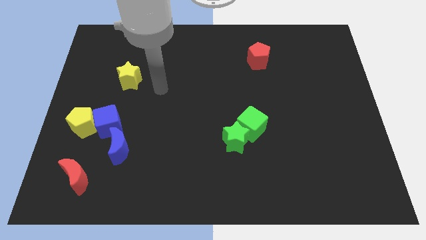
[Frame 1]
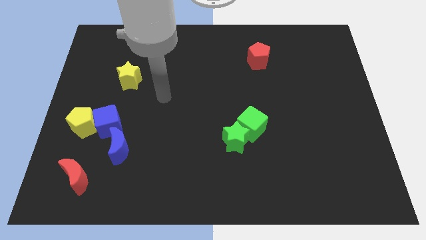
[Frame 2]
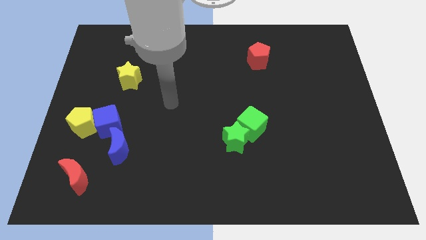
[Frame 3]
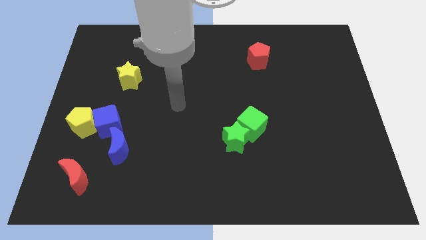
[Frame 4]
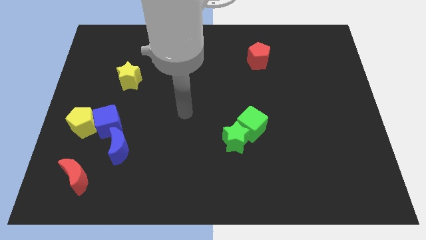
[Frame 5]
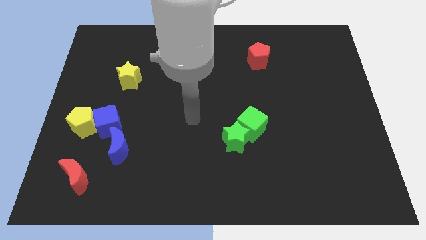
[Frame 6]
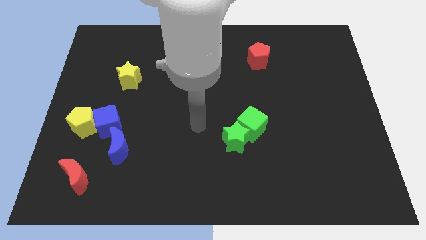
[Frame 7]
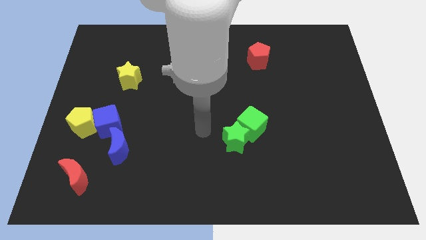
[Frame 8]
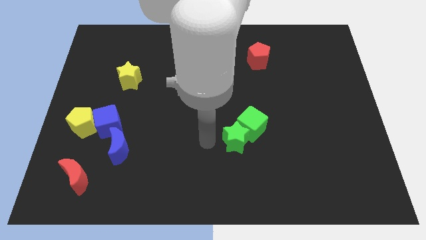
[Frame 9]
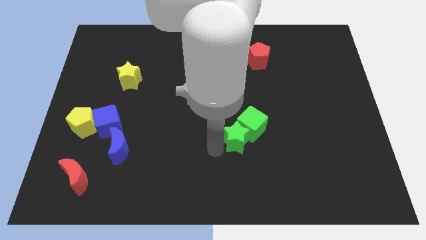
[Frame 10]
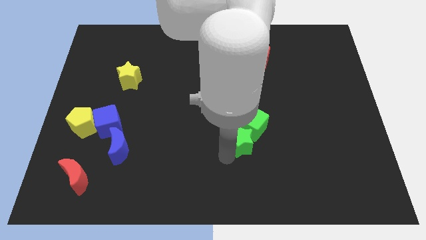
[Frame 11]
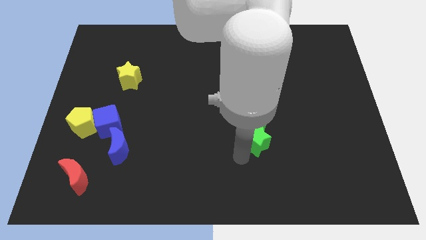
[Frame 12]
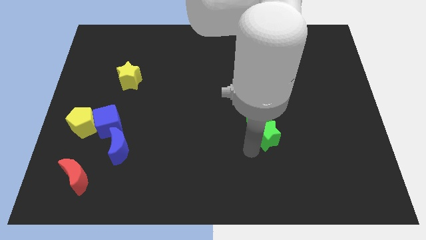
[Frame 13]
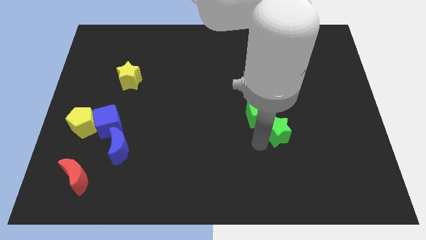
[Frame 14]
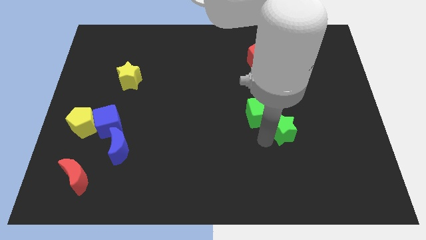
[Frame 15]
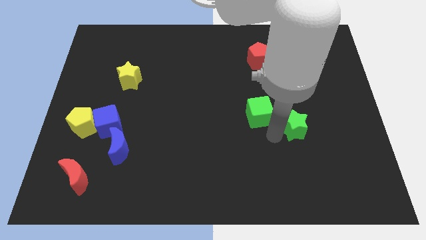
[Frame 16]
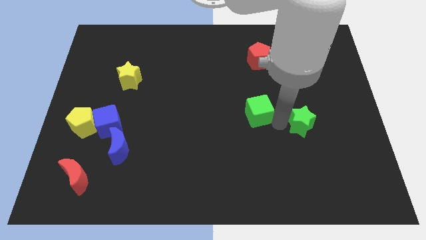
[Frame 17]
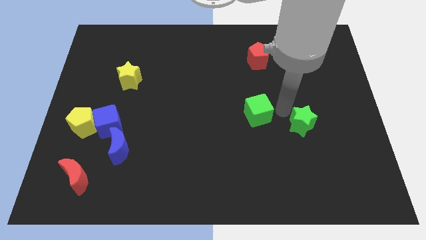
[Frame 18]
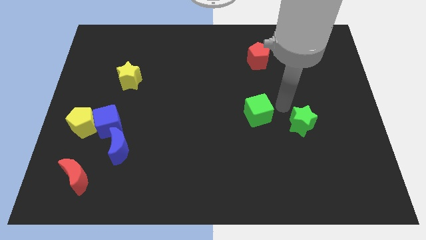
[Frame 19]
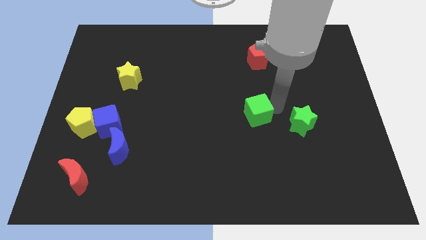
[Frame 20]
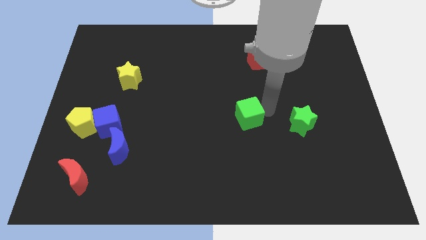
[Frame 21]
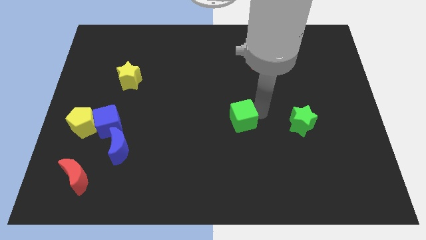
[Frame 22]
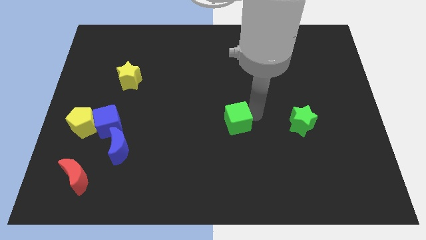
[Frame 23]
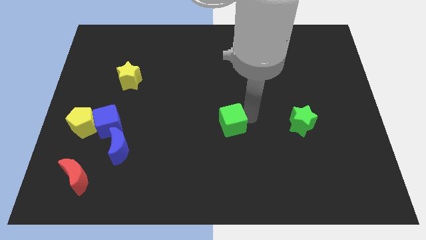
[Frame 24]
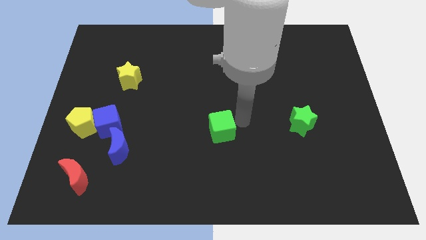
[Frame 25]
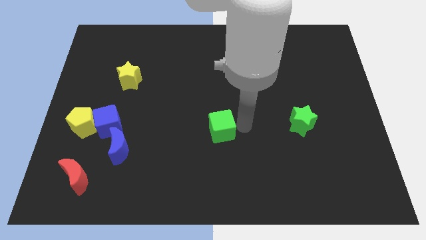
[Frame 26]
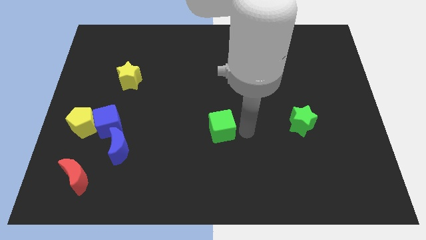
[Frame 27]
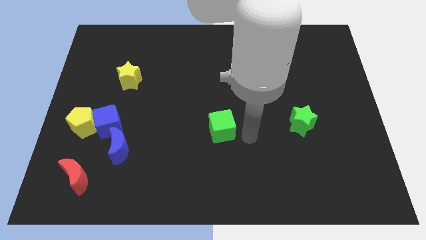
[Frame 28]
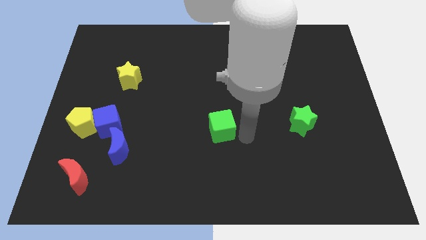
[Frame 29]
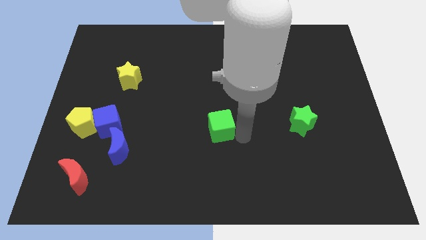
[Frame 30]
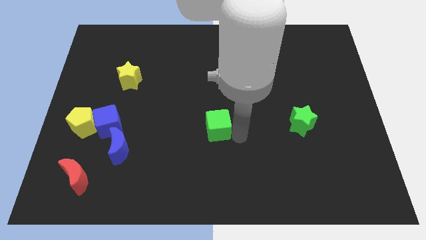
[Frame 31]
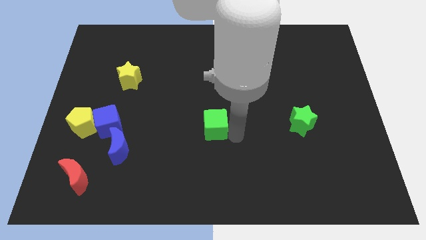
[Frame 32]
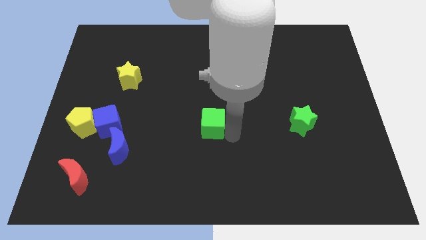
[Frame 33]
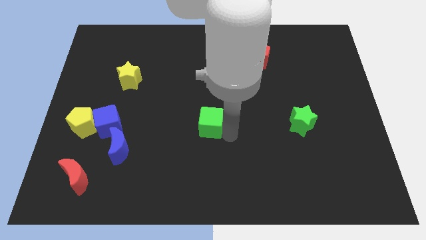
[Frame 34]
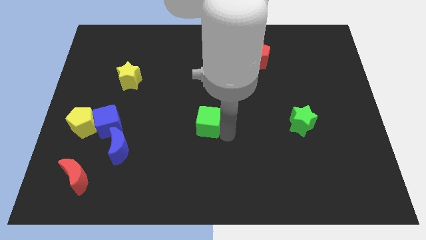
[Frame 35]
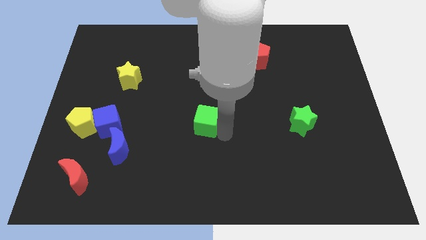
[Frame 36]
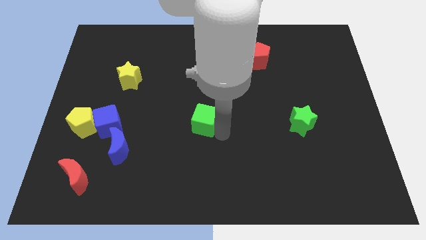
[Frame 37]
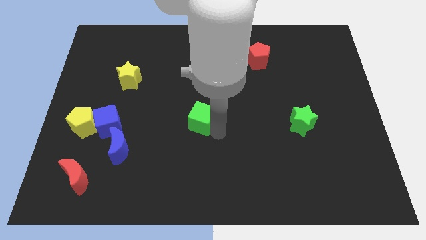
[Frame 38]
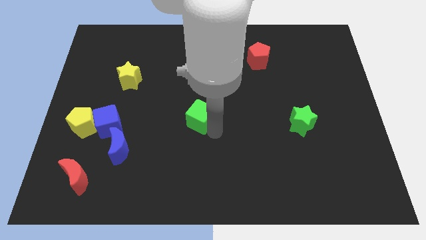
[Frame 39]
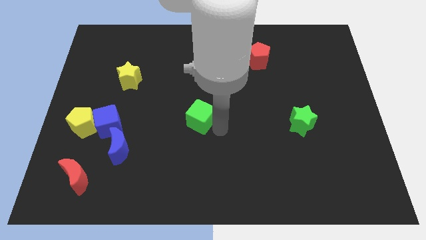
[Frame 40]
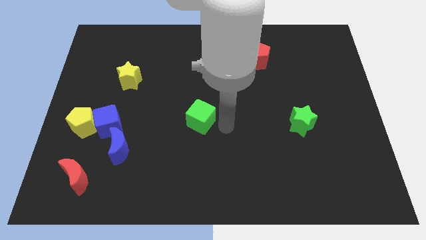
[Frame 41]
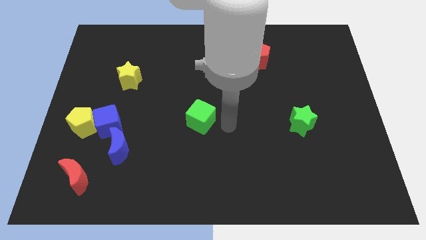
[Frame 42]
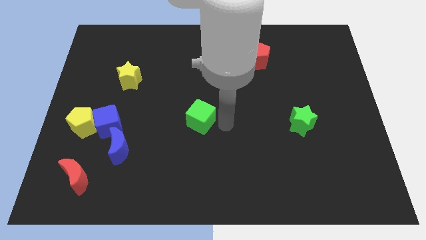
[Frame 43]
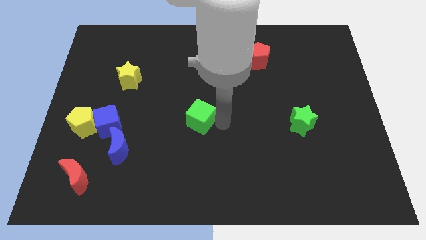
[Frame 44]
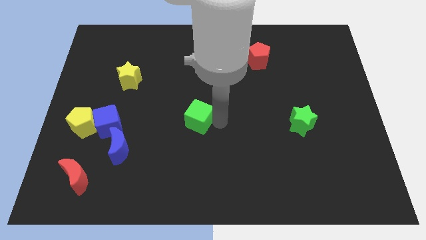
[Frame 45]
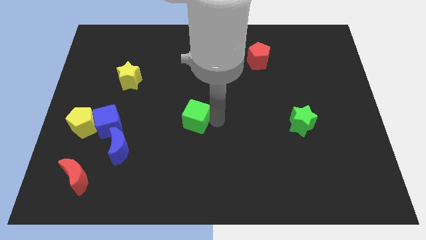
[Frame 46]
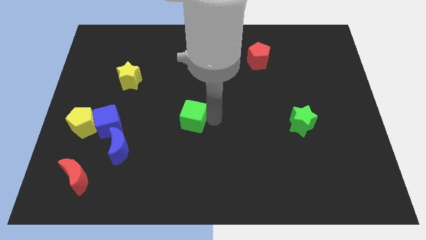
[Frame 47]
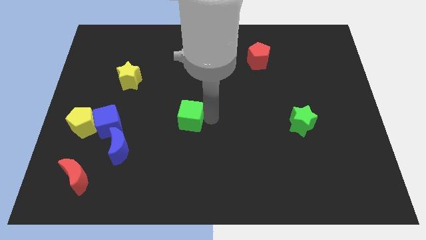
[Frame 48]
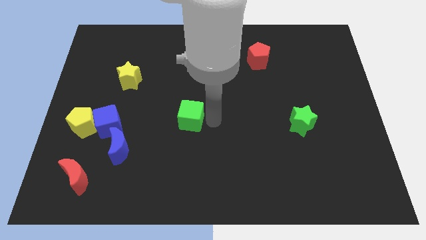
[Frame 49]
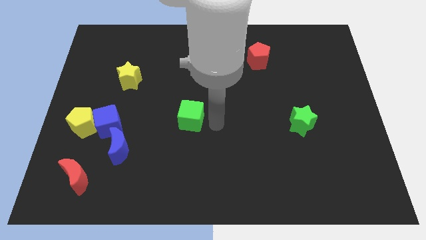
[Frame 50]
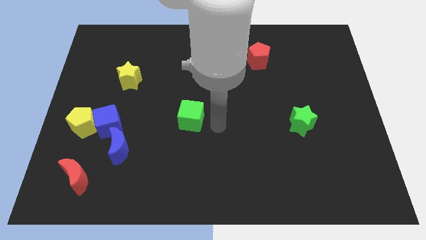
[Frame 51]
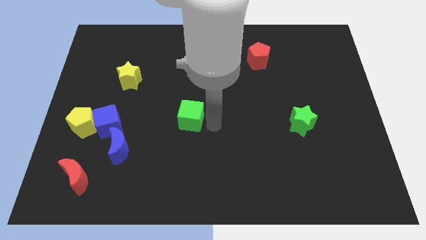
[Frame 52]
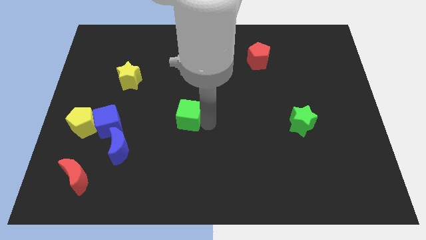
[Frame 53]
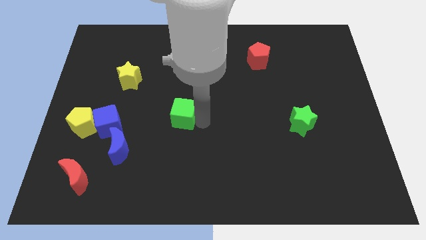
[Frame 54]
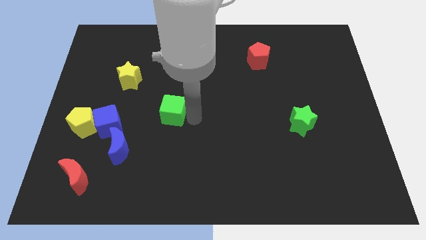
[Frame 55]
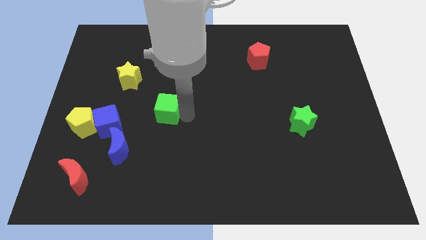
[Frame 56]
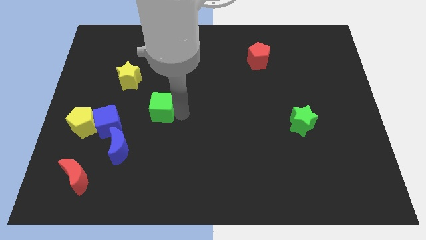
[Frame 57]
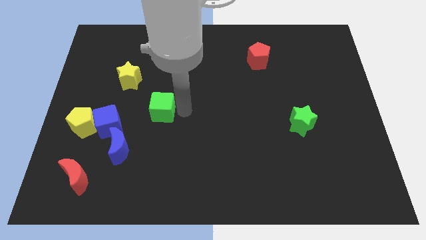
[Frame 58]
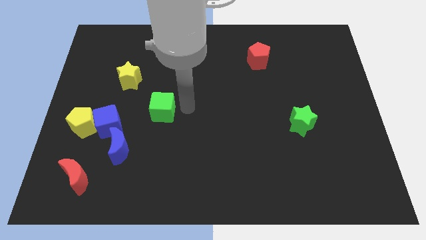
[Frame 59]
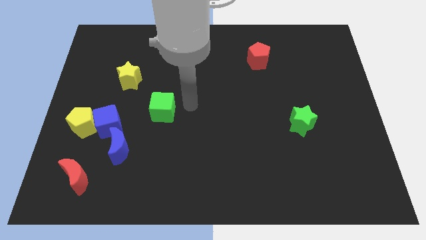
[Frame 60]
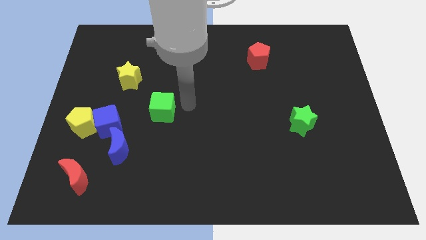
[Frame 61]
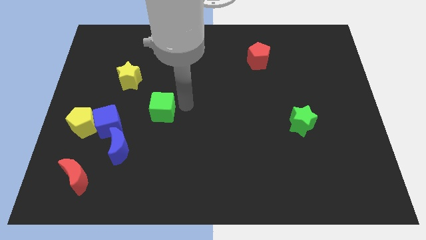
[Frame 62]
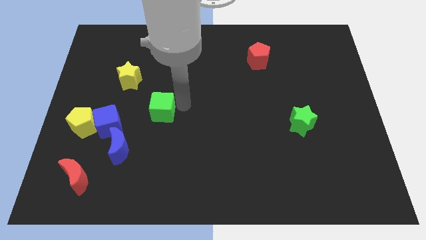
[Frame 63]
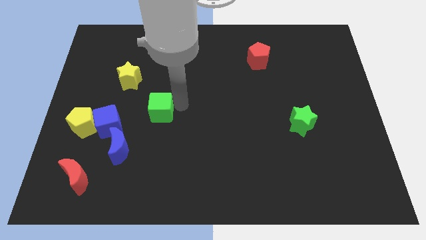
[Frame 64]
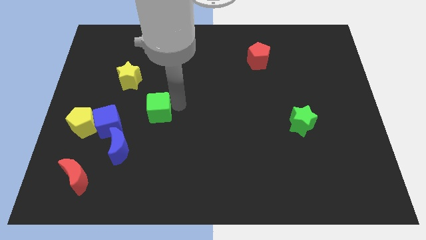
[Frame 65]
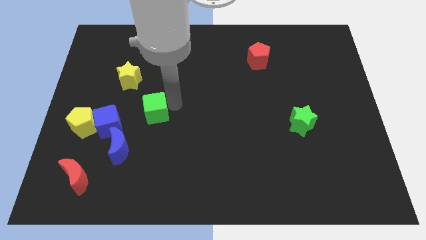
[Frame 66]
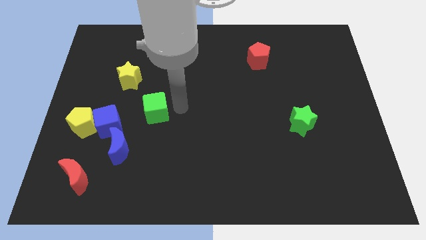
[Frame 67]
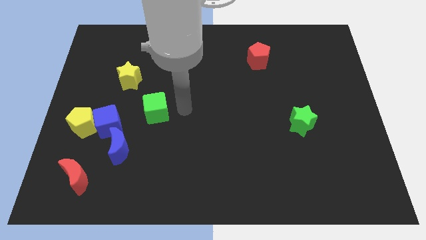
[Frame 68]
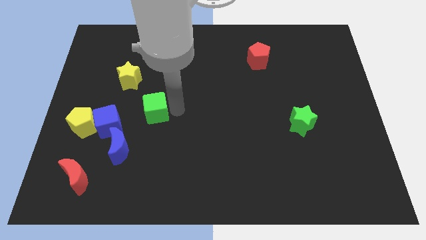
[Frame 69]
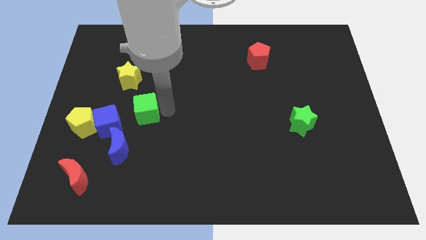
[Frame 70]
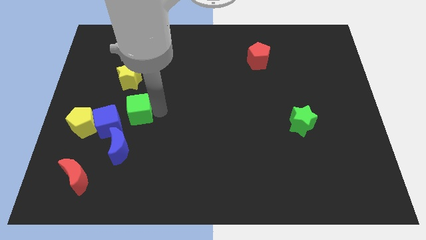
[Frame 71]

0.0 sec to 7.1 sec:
move the green cube below the yellow star
